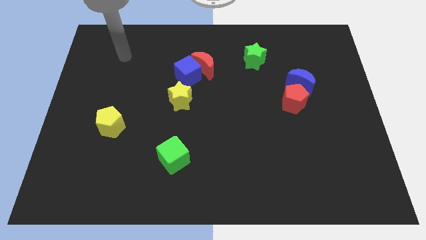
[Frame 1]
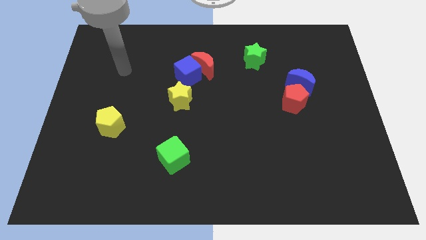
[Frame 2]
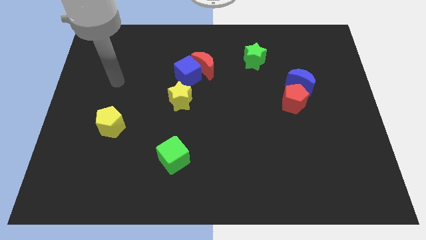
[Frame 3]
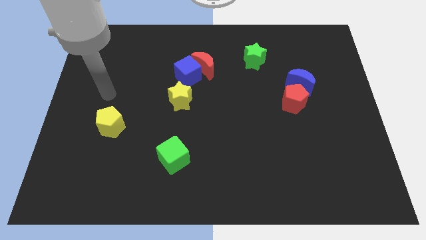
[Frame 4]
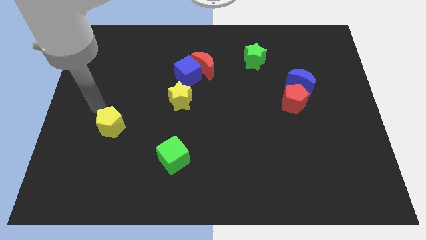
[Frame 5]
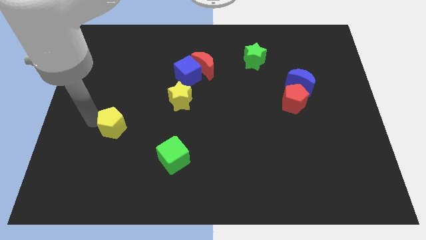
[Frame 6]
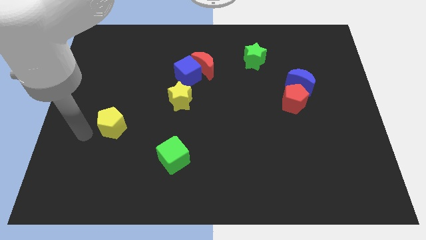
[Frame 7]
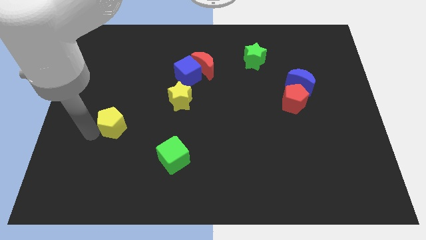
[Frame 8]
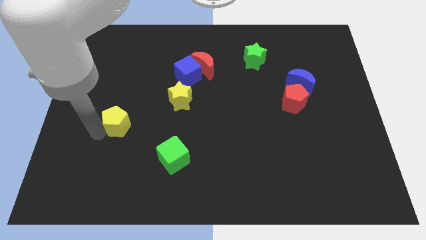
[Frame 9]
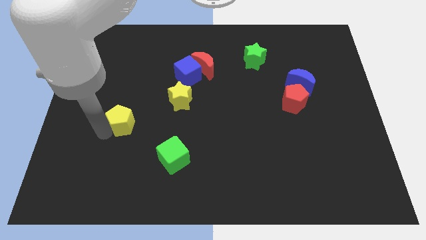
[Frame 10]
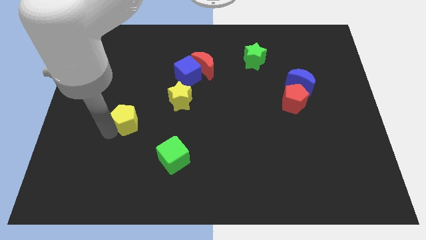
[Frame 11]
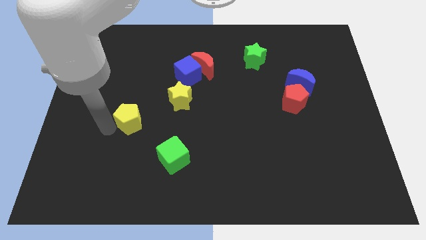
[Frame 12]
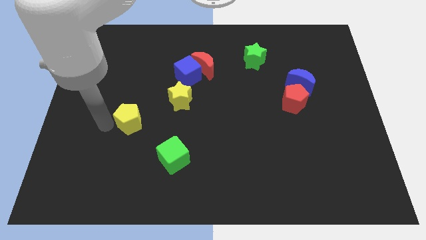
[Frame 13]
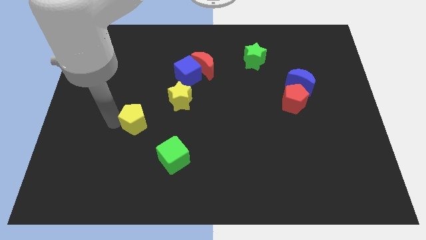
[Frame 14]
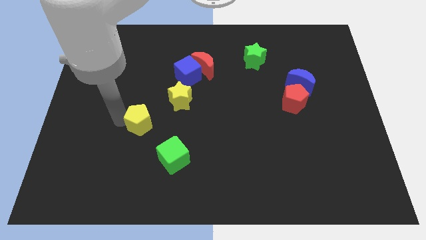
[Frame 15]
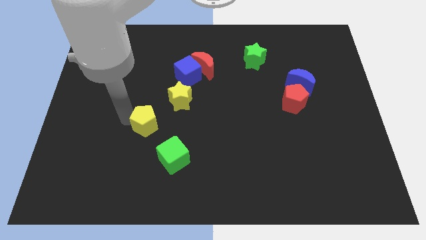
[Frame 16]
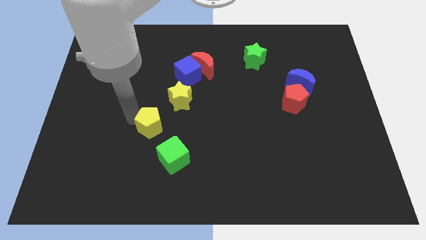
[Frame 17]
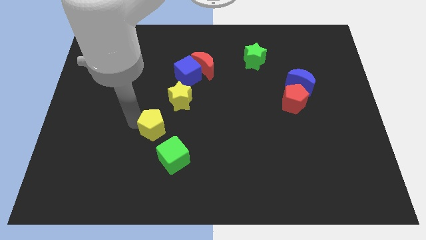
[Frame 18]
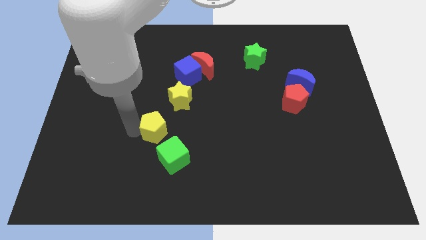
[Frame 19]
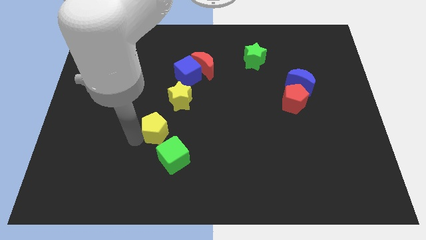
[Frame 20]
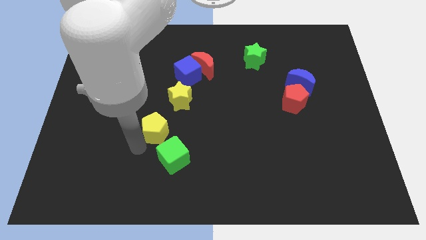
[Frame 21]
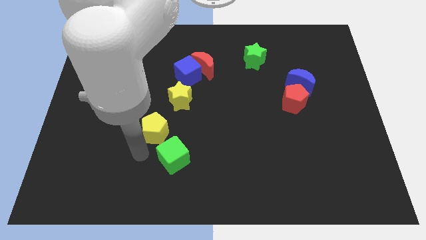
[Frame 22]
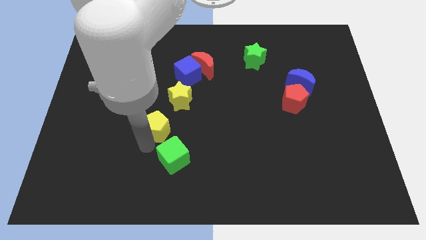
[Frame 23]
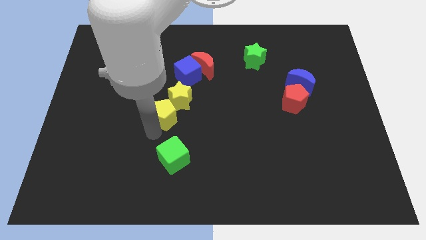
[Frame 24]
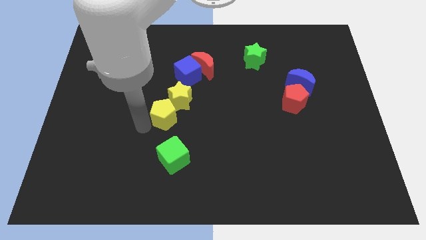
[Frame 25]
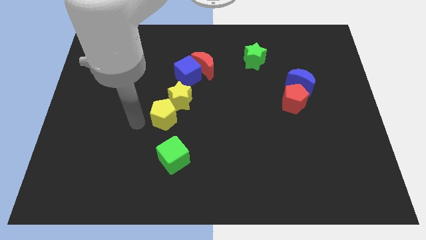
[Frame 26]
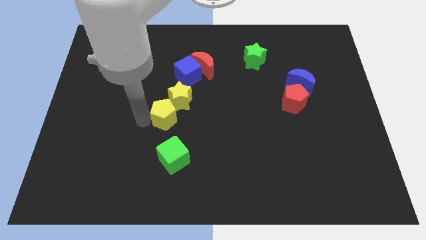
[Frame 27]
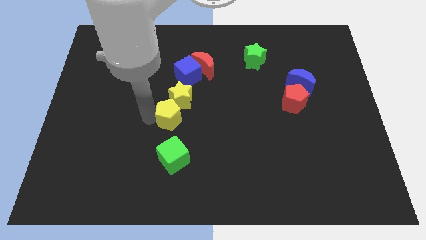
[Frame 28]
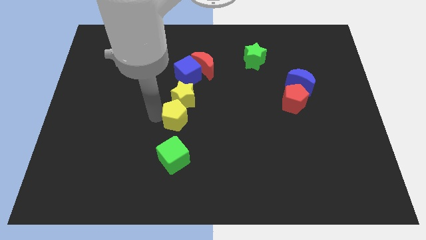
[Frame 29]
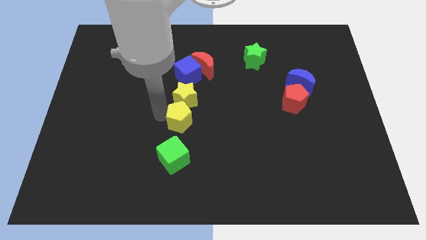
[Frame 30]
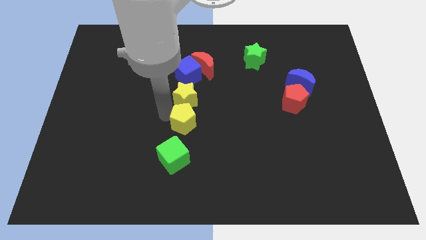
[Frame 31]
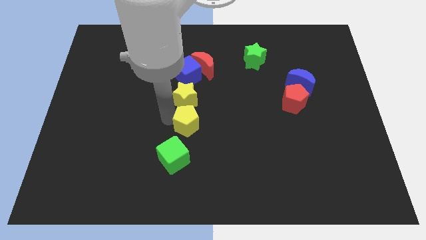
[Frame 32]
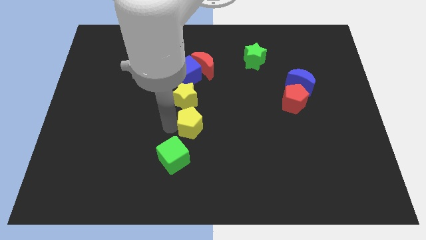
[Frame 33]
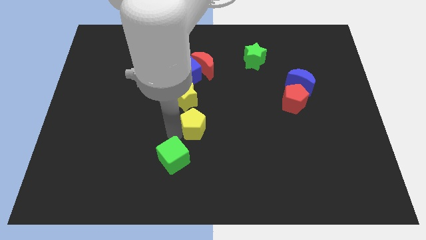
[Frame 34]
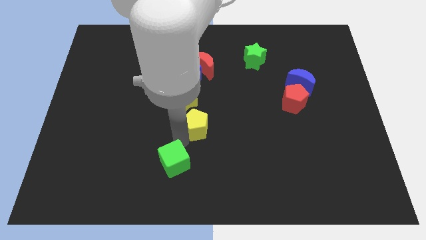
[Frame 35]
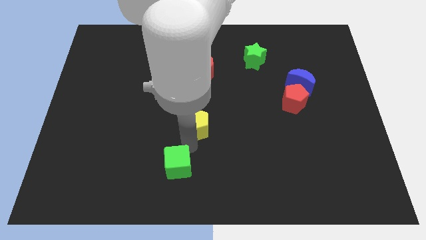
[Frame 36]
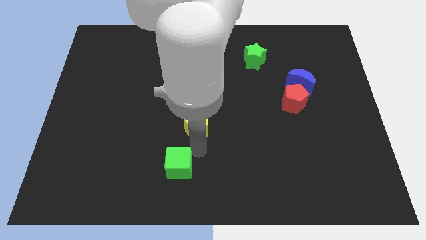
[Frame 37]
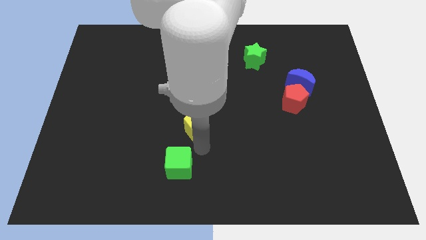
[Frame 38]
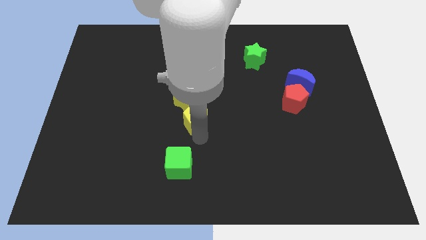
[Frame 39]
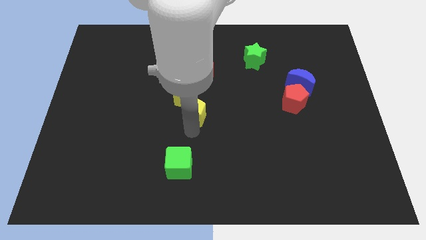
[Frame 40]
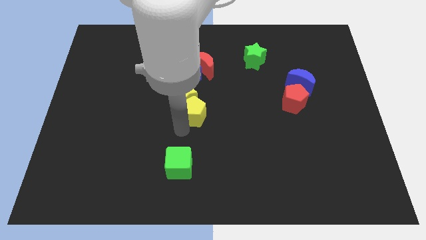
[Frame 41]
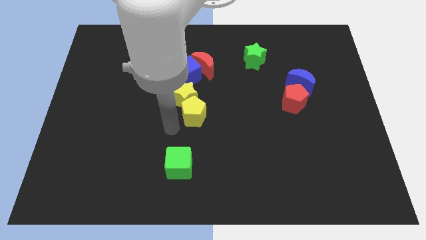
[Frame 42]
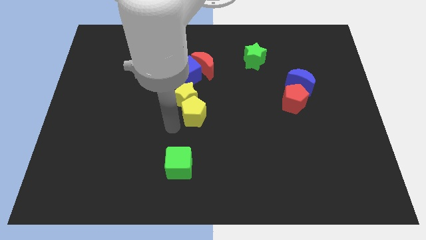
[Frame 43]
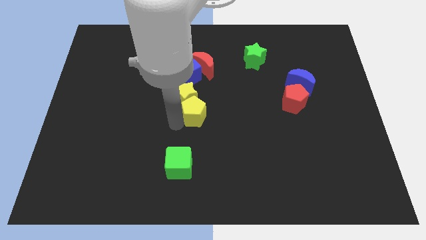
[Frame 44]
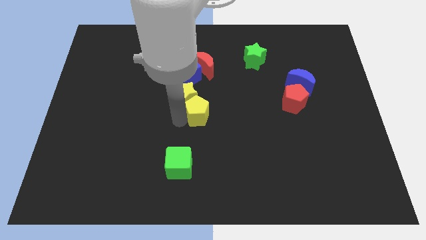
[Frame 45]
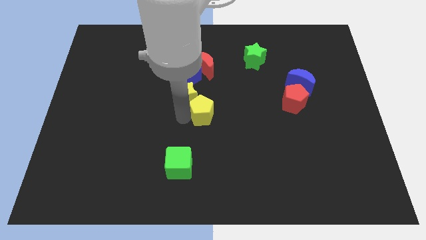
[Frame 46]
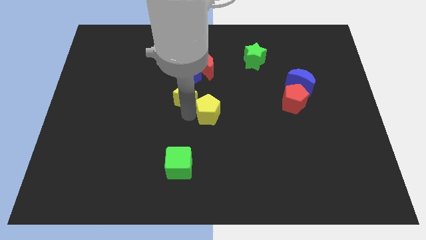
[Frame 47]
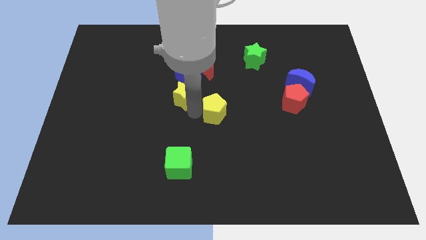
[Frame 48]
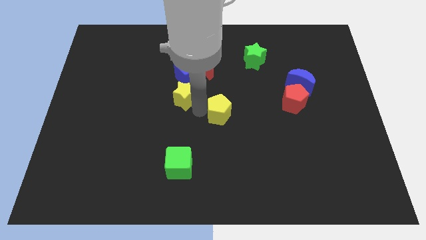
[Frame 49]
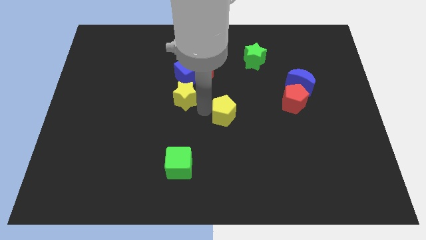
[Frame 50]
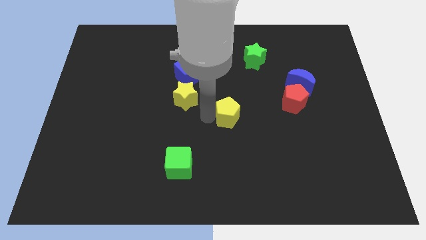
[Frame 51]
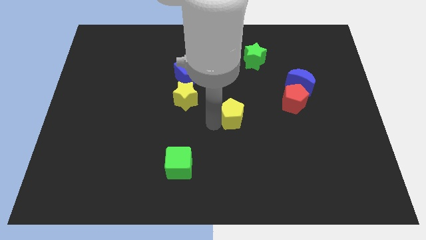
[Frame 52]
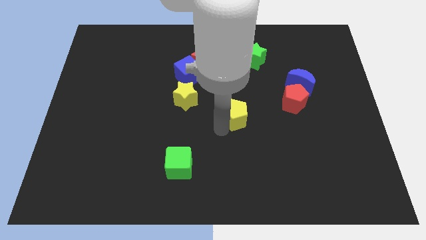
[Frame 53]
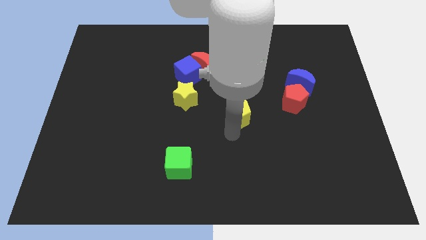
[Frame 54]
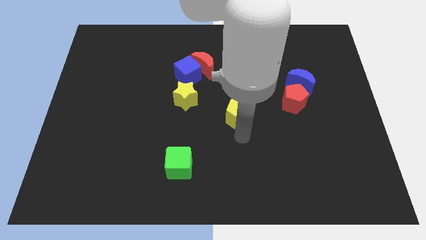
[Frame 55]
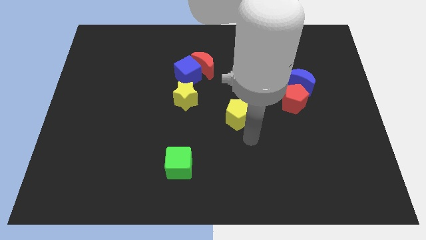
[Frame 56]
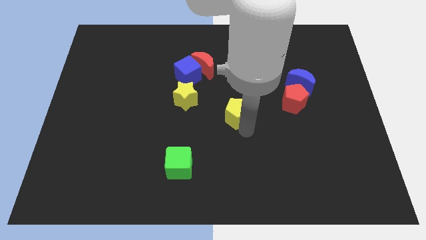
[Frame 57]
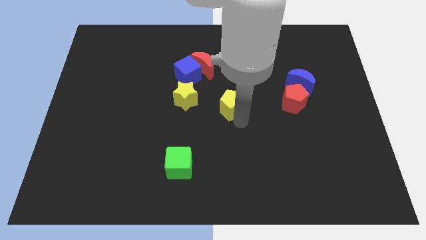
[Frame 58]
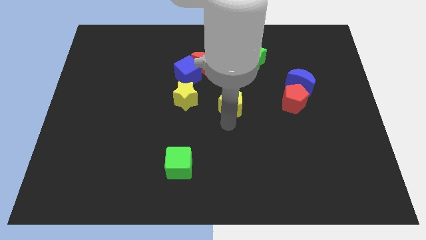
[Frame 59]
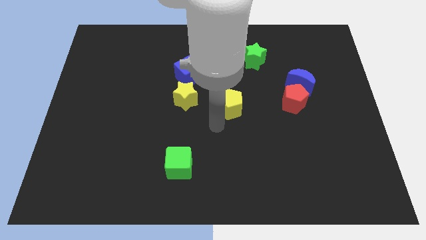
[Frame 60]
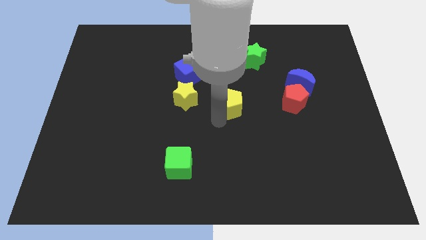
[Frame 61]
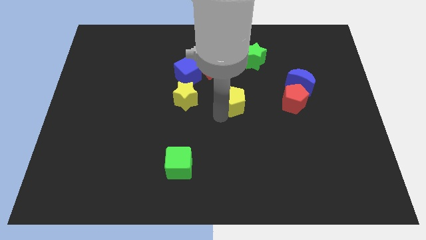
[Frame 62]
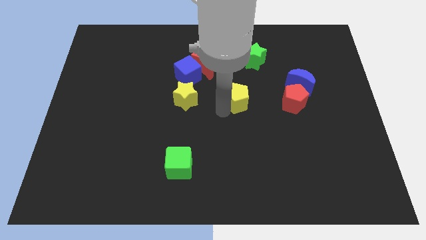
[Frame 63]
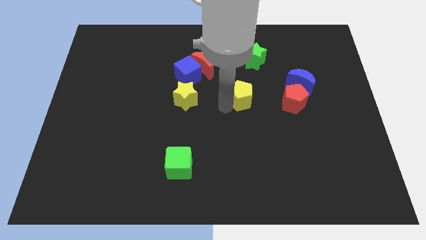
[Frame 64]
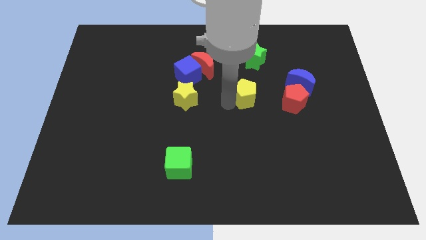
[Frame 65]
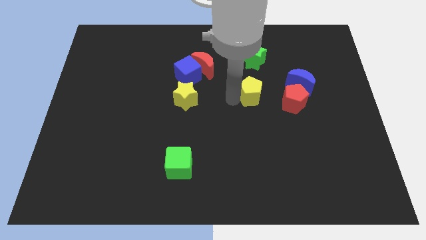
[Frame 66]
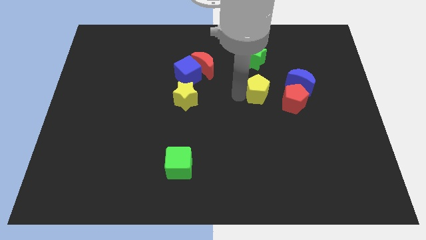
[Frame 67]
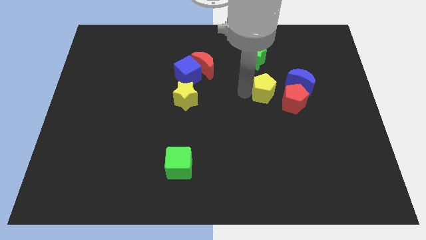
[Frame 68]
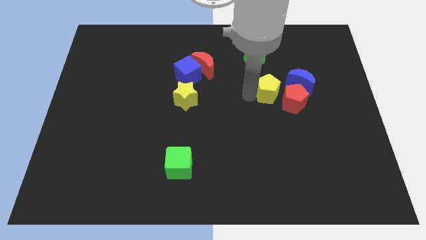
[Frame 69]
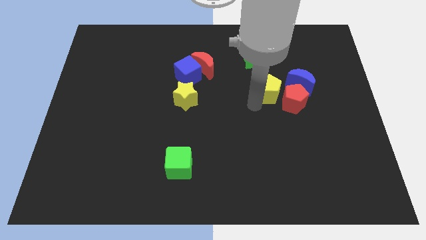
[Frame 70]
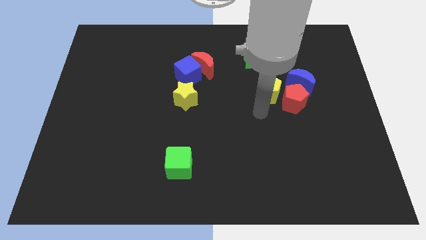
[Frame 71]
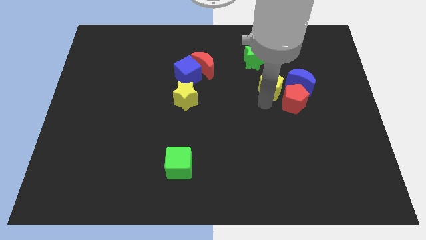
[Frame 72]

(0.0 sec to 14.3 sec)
push the yellow pentagon diagonally down and to the right of the green star
